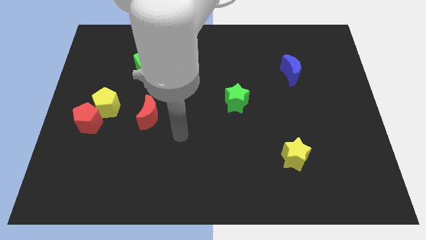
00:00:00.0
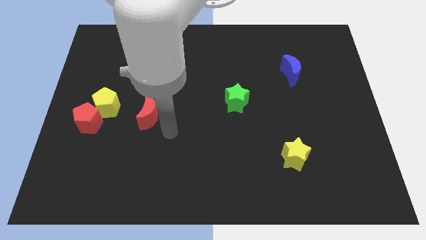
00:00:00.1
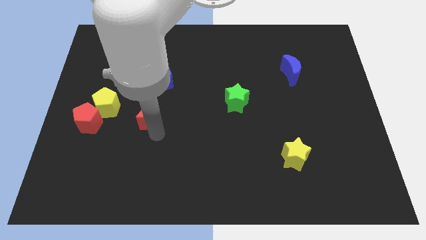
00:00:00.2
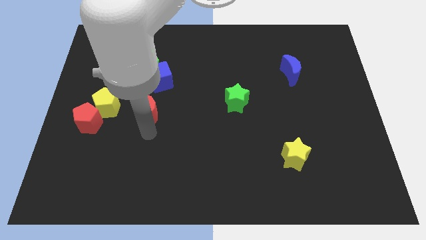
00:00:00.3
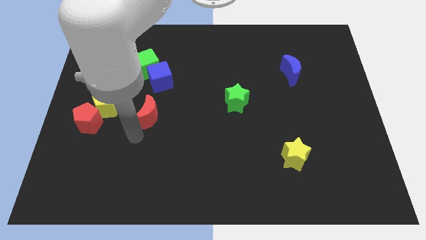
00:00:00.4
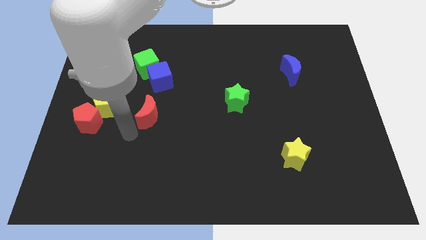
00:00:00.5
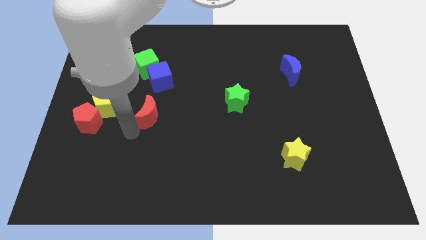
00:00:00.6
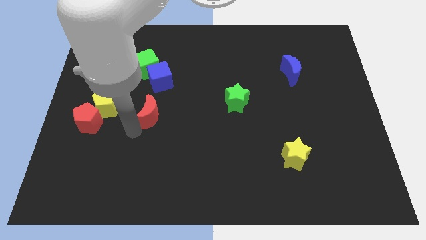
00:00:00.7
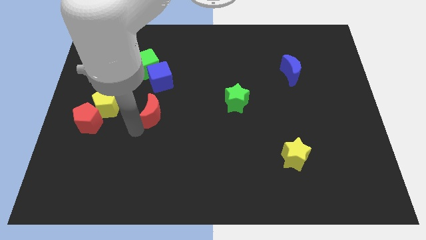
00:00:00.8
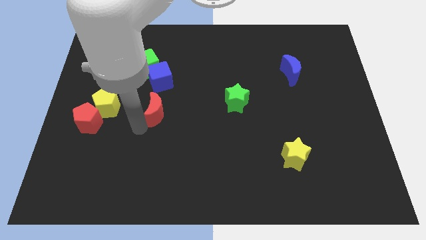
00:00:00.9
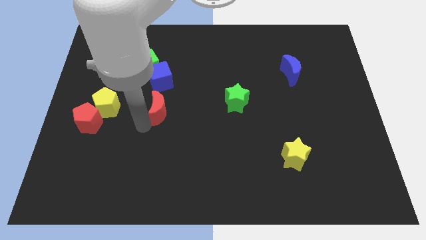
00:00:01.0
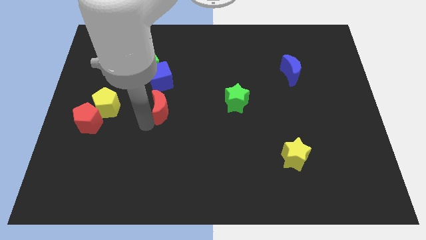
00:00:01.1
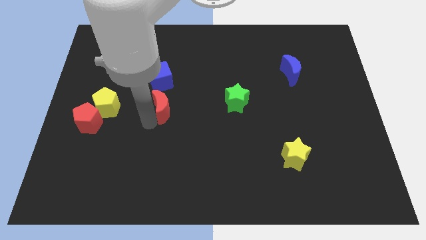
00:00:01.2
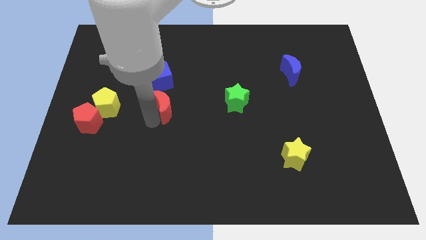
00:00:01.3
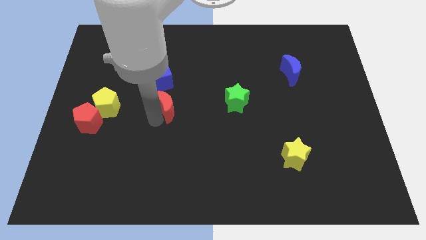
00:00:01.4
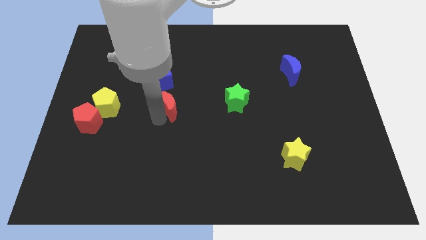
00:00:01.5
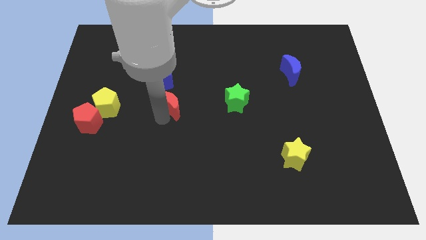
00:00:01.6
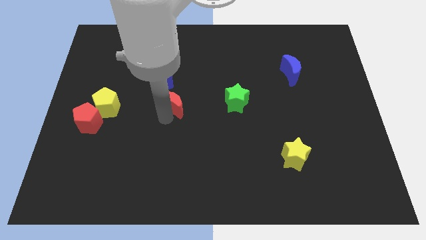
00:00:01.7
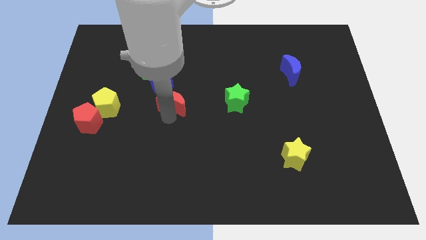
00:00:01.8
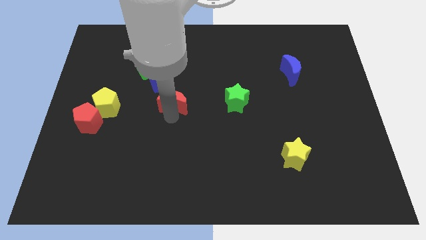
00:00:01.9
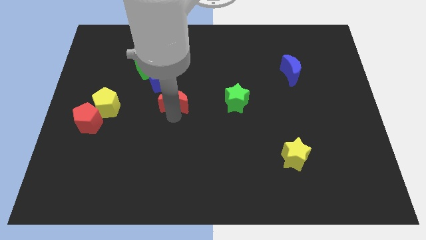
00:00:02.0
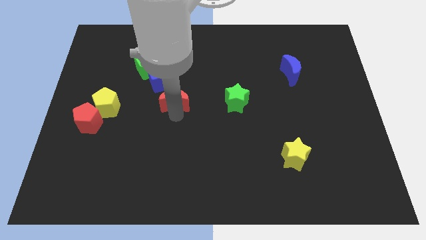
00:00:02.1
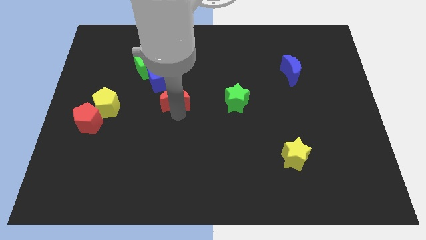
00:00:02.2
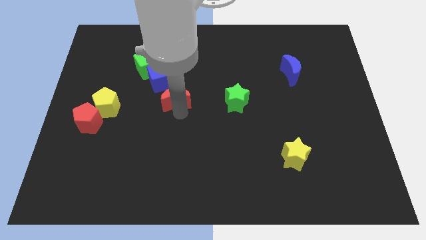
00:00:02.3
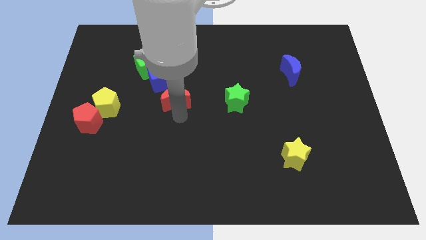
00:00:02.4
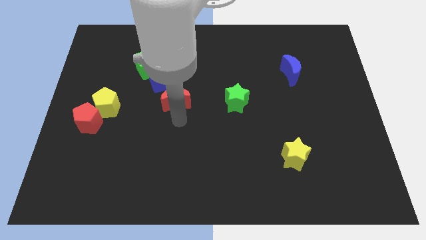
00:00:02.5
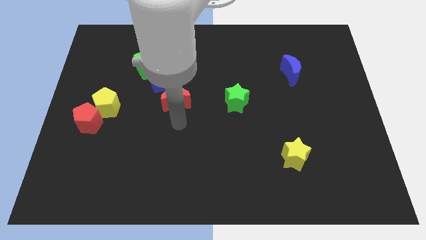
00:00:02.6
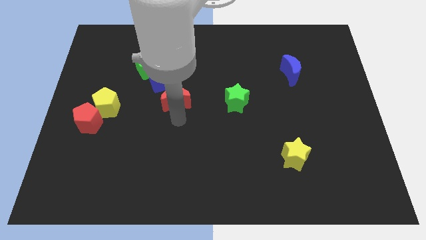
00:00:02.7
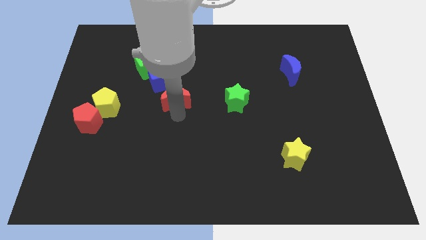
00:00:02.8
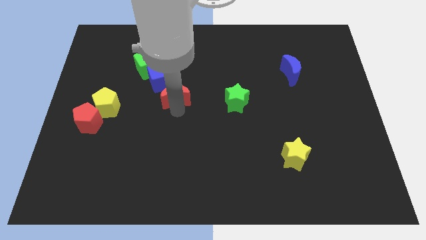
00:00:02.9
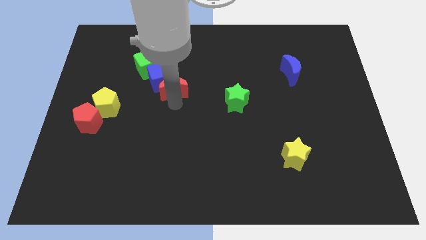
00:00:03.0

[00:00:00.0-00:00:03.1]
slightly move the red moon upwards

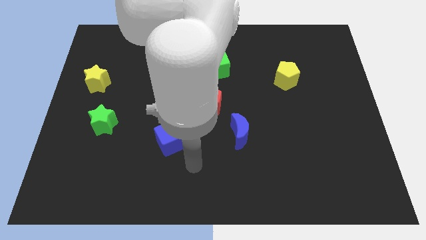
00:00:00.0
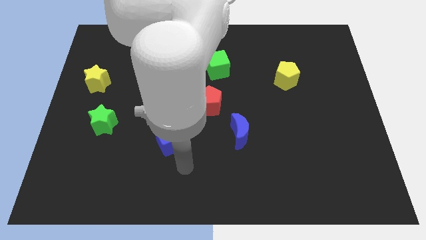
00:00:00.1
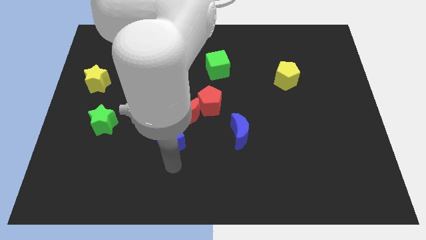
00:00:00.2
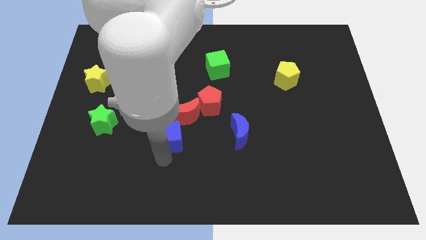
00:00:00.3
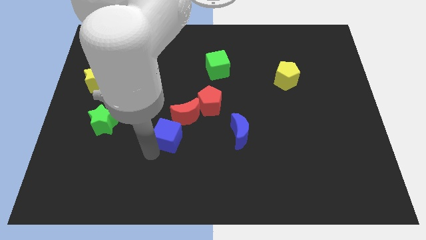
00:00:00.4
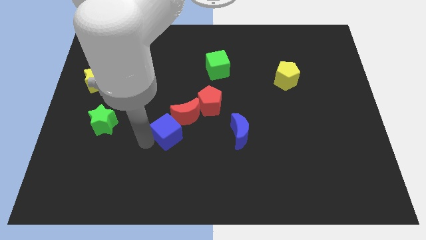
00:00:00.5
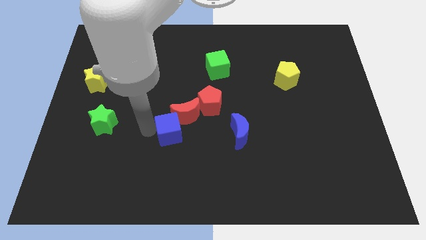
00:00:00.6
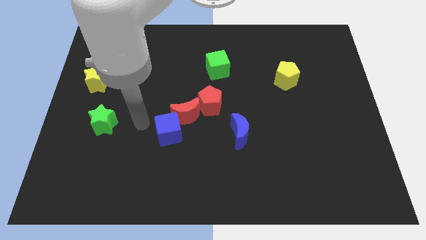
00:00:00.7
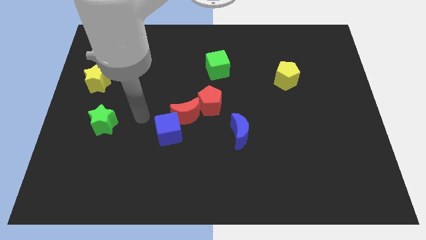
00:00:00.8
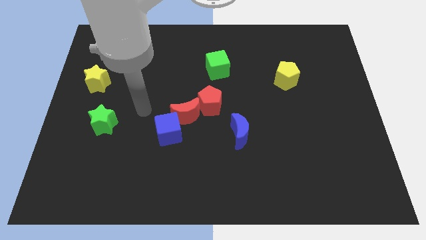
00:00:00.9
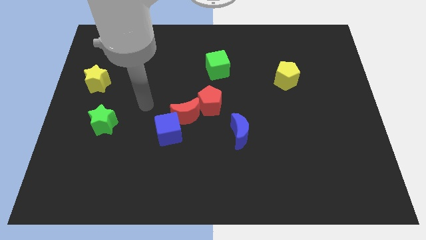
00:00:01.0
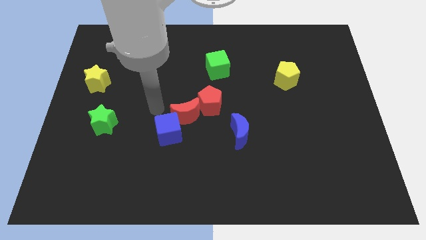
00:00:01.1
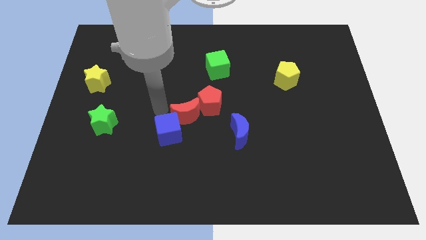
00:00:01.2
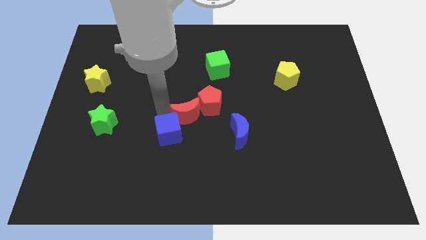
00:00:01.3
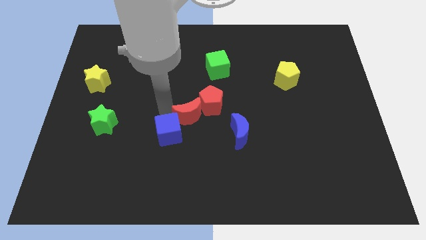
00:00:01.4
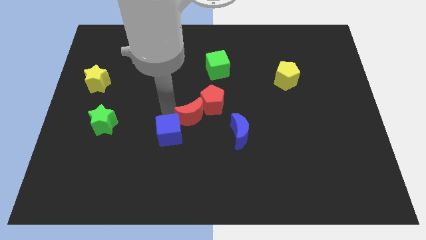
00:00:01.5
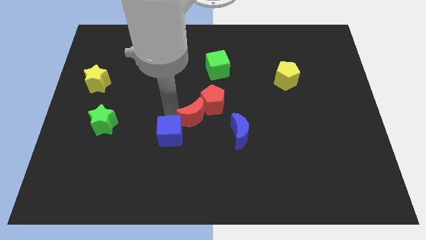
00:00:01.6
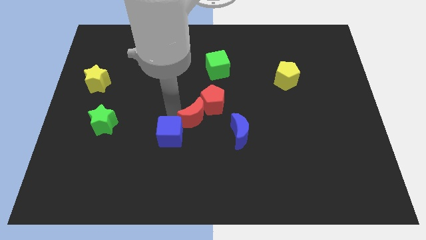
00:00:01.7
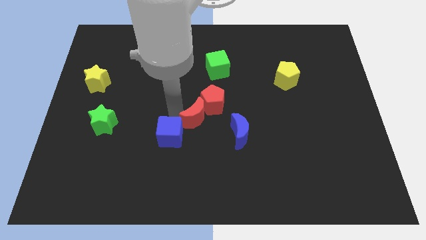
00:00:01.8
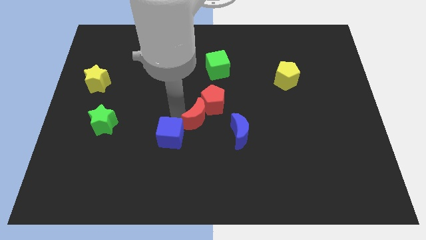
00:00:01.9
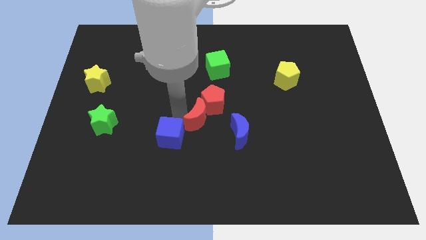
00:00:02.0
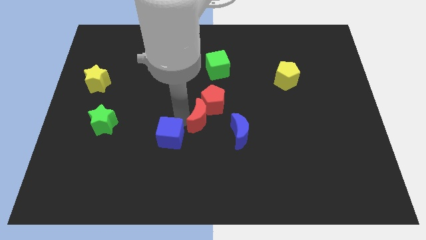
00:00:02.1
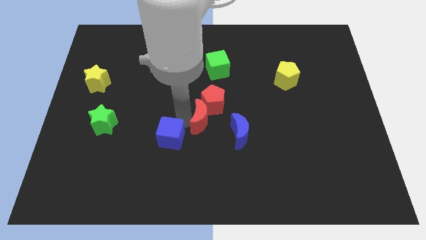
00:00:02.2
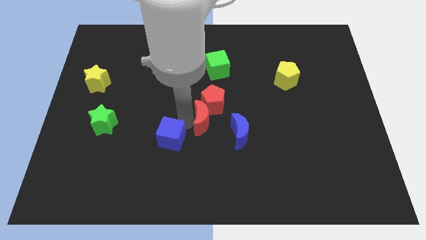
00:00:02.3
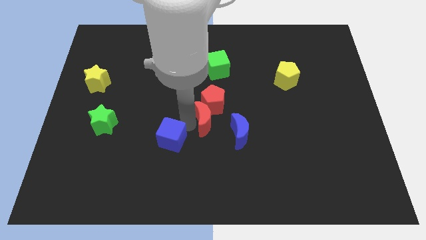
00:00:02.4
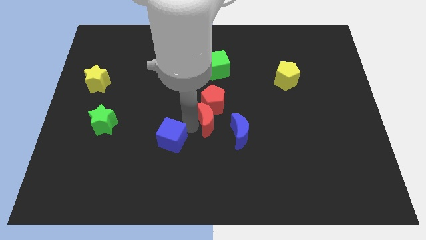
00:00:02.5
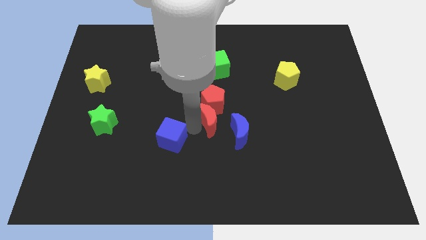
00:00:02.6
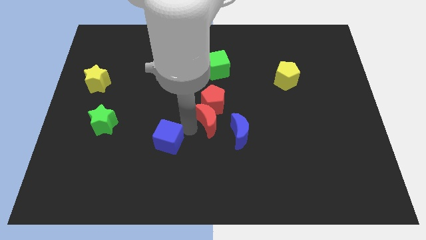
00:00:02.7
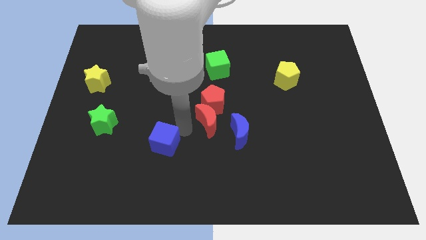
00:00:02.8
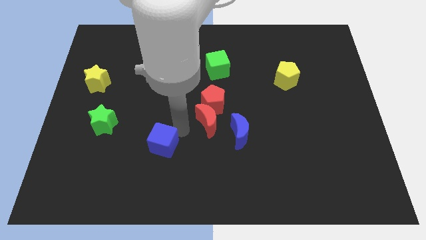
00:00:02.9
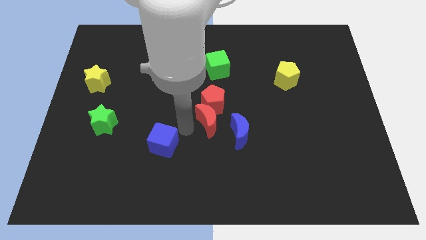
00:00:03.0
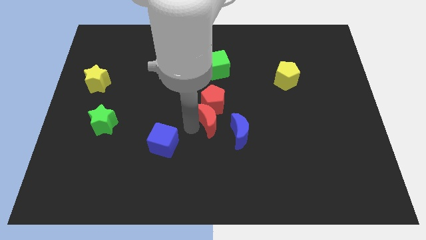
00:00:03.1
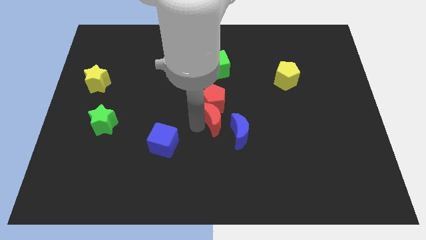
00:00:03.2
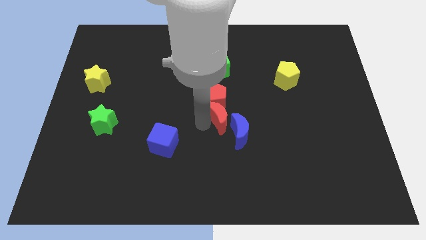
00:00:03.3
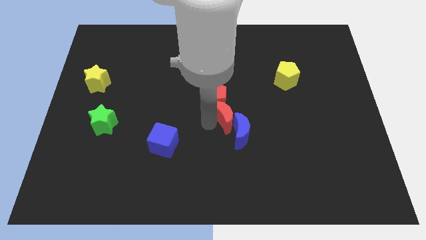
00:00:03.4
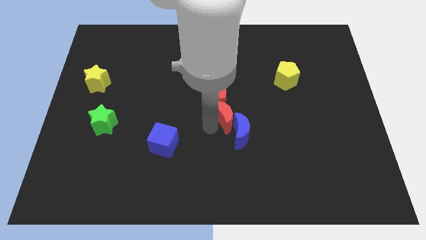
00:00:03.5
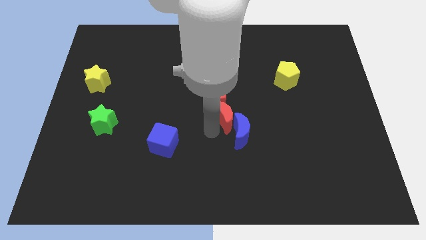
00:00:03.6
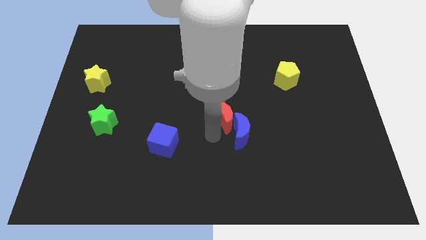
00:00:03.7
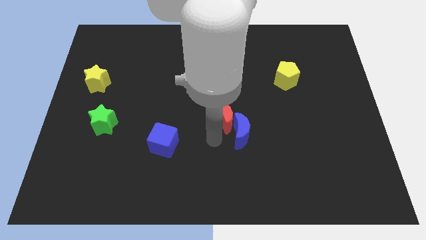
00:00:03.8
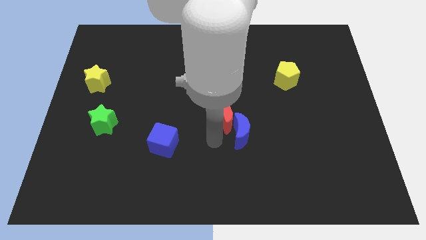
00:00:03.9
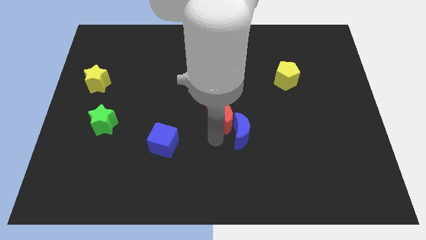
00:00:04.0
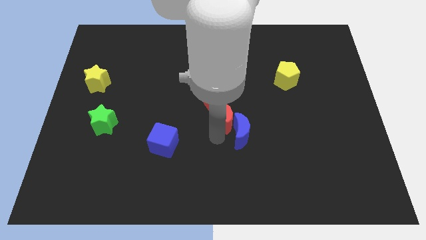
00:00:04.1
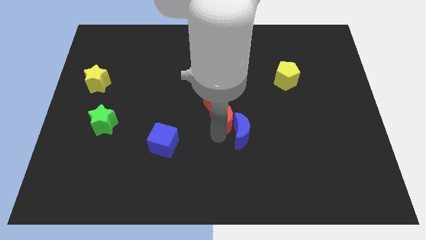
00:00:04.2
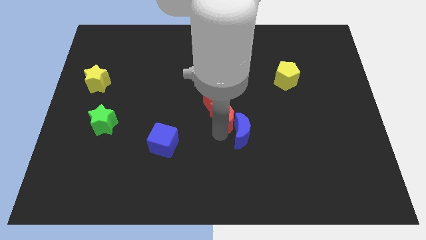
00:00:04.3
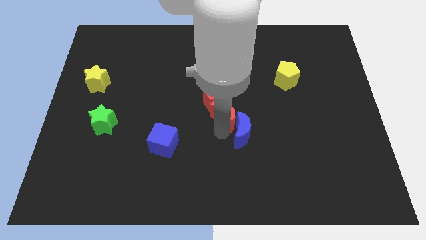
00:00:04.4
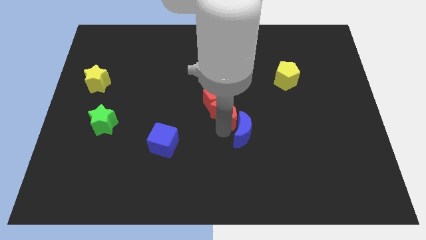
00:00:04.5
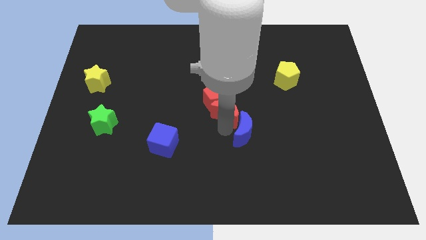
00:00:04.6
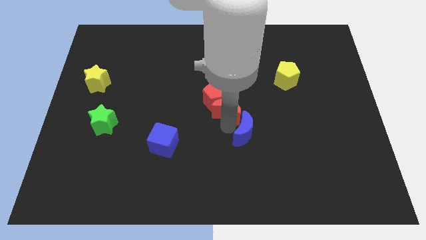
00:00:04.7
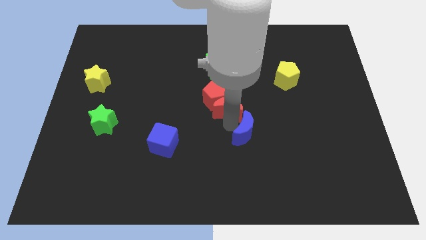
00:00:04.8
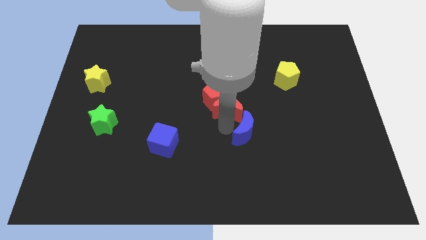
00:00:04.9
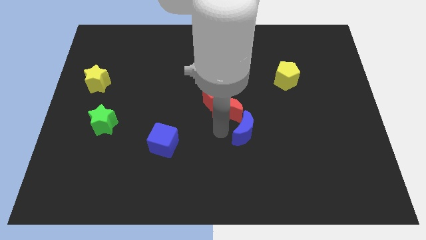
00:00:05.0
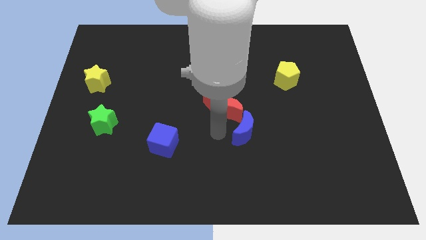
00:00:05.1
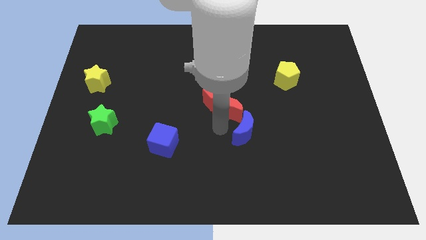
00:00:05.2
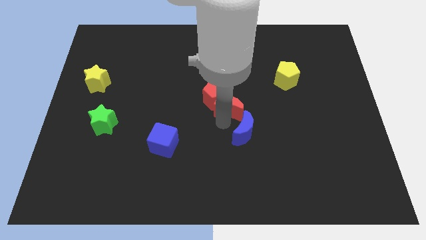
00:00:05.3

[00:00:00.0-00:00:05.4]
push the red moon diagonally upwards and right a little bit
